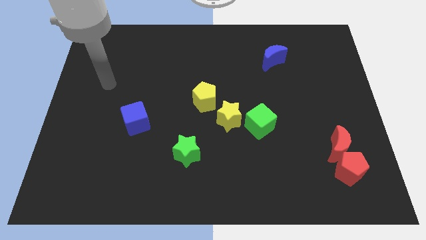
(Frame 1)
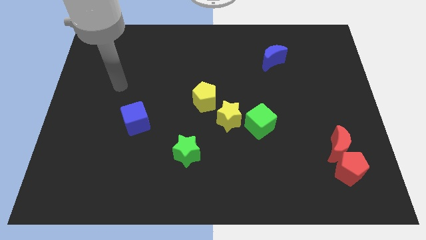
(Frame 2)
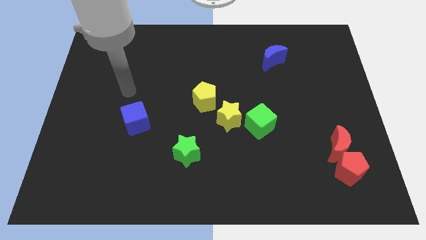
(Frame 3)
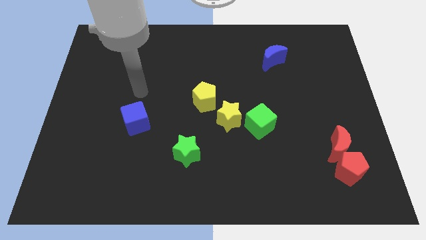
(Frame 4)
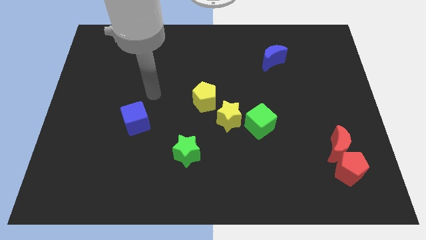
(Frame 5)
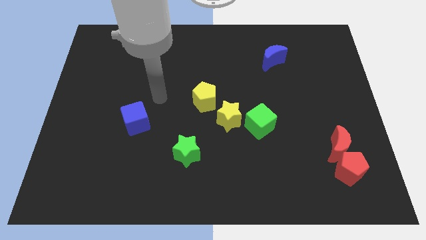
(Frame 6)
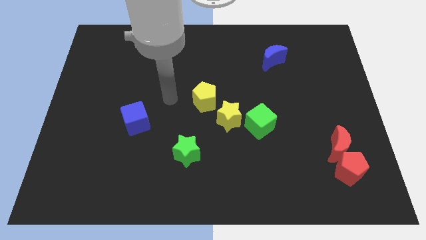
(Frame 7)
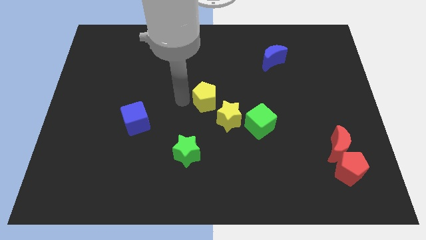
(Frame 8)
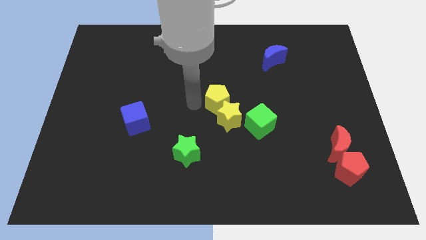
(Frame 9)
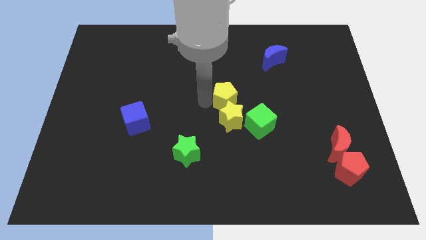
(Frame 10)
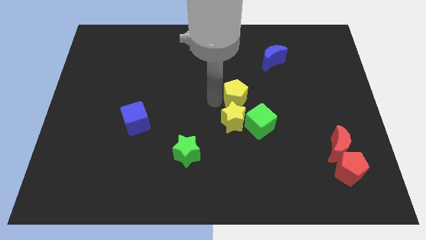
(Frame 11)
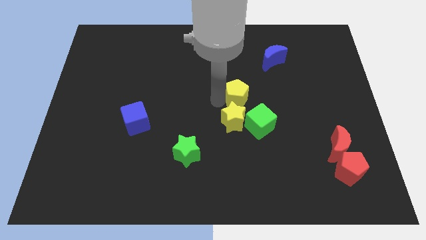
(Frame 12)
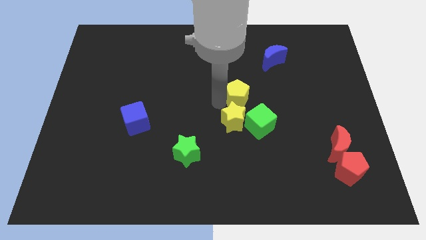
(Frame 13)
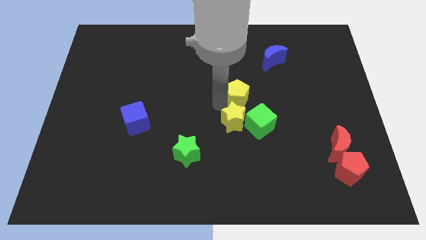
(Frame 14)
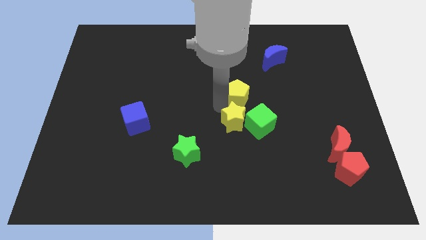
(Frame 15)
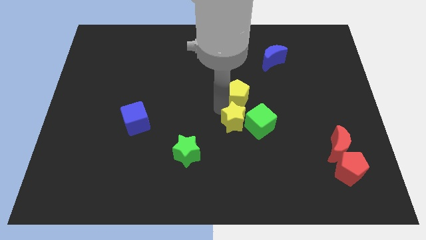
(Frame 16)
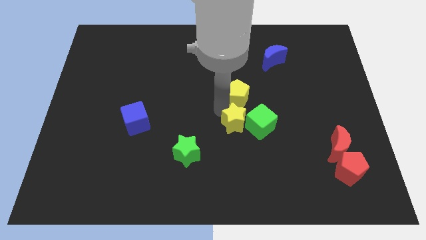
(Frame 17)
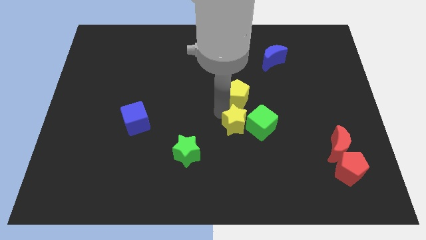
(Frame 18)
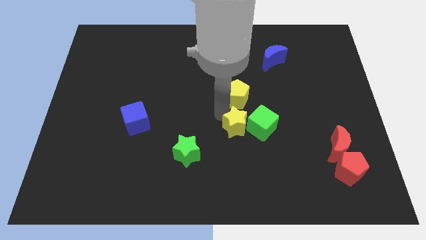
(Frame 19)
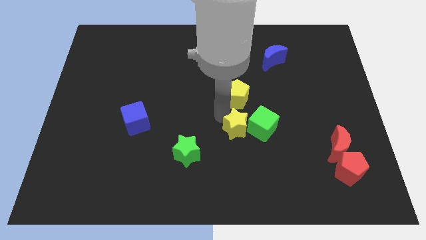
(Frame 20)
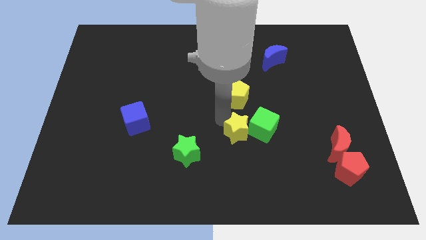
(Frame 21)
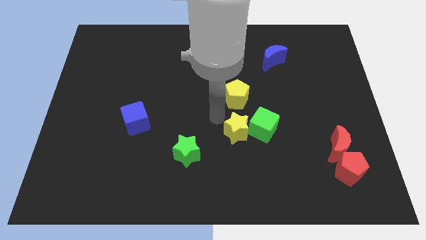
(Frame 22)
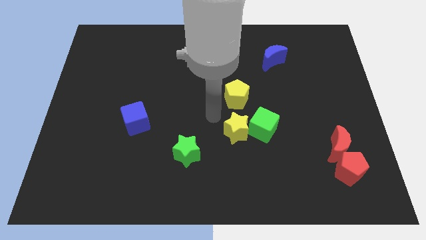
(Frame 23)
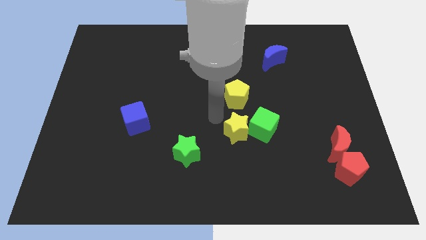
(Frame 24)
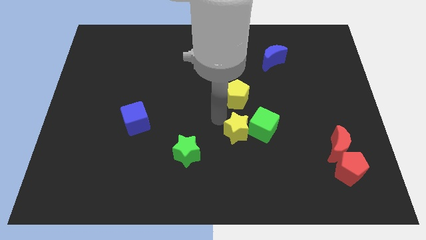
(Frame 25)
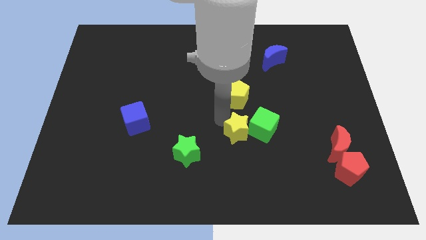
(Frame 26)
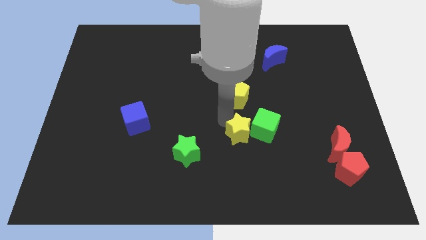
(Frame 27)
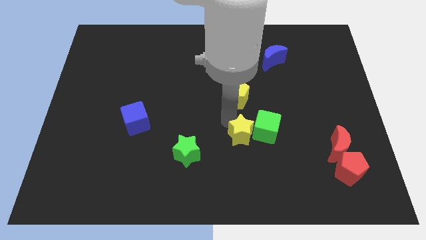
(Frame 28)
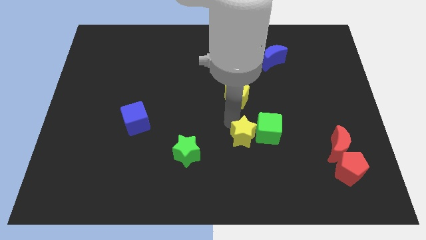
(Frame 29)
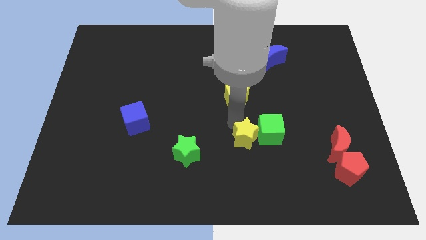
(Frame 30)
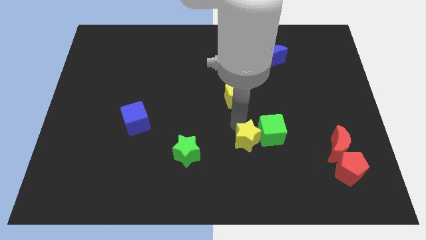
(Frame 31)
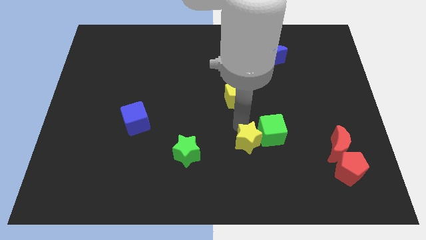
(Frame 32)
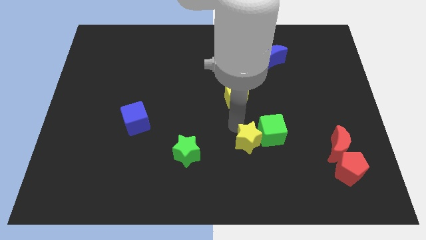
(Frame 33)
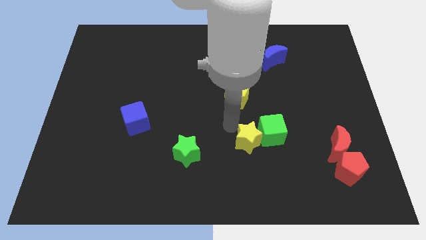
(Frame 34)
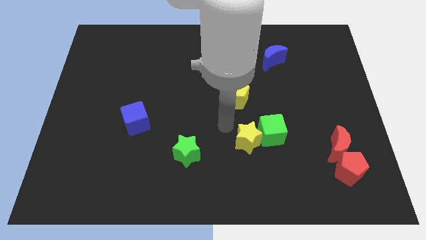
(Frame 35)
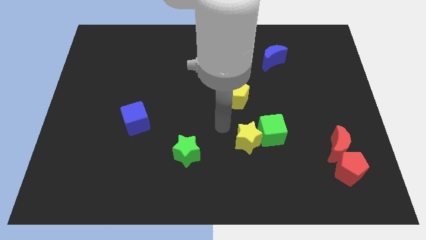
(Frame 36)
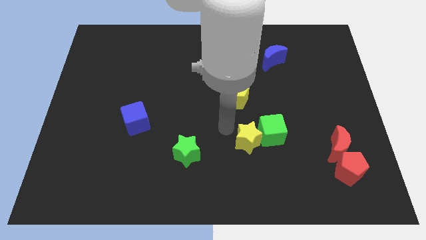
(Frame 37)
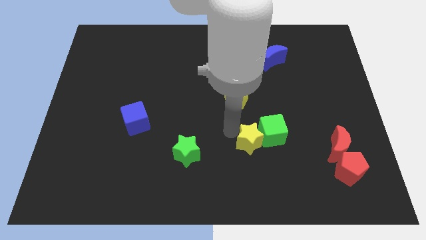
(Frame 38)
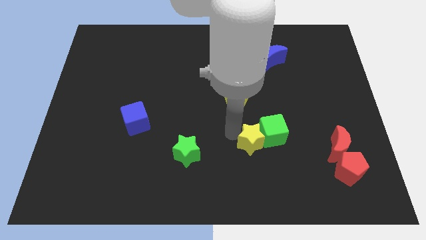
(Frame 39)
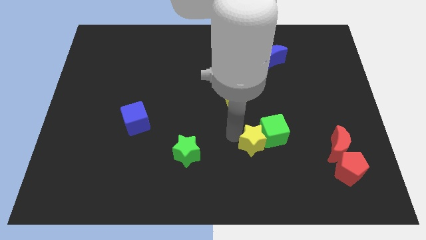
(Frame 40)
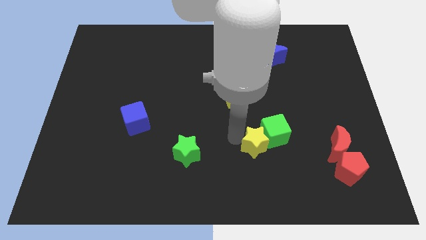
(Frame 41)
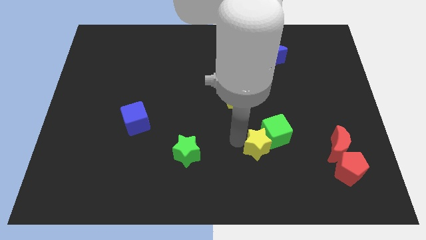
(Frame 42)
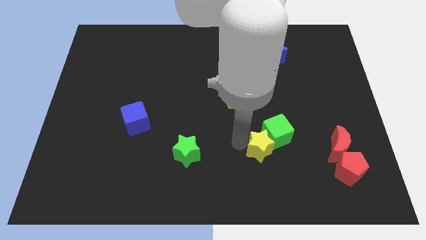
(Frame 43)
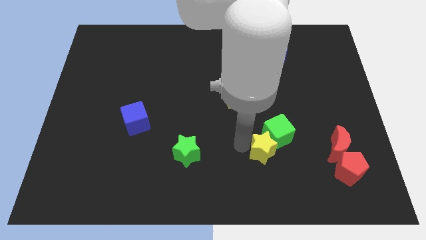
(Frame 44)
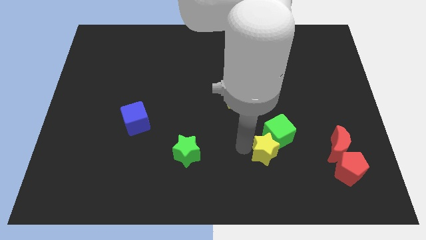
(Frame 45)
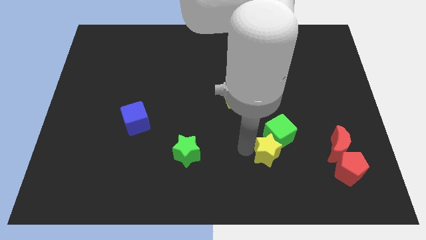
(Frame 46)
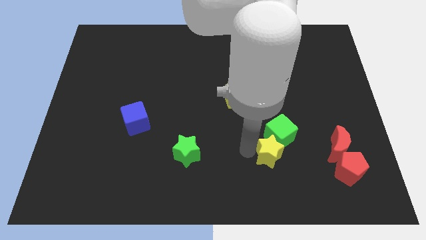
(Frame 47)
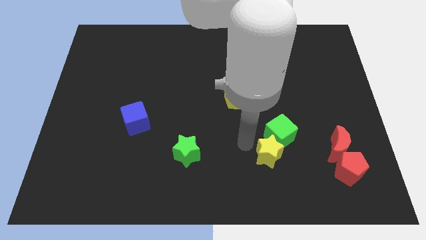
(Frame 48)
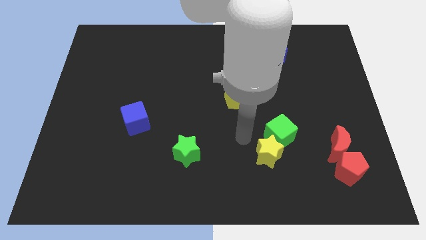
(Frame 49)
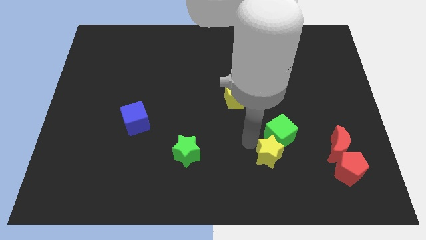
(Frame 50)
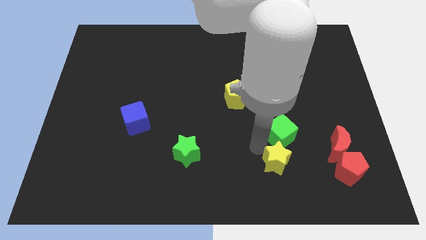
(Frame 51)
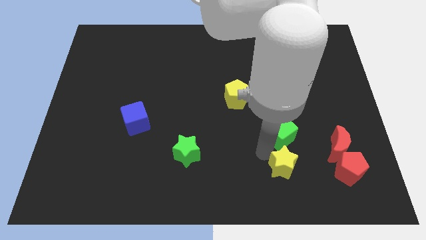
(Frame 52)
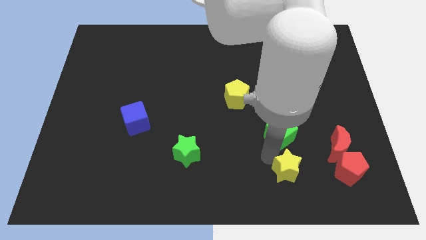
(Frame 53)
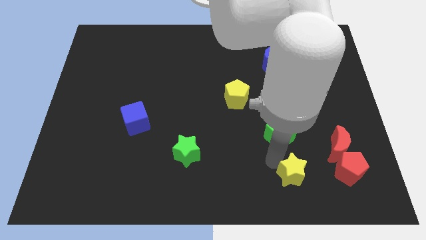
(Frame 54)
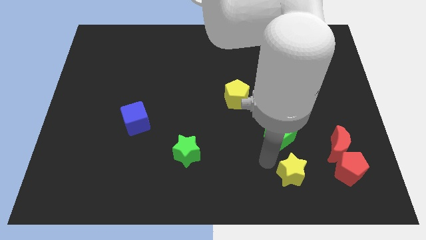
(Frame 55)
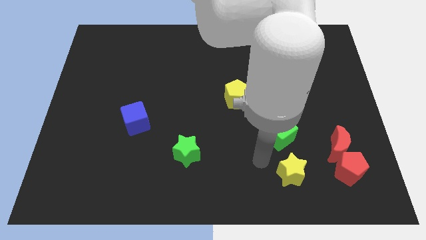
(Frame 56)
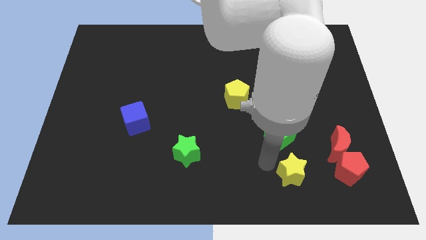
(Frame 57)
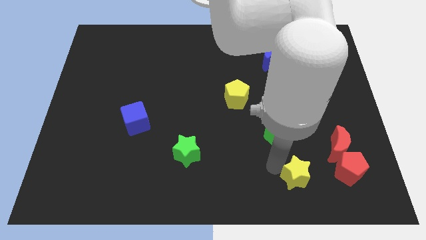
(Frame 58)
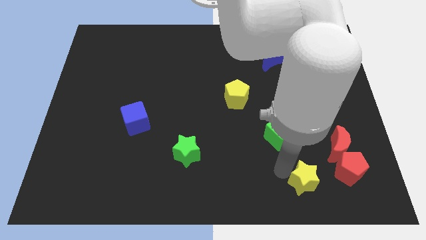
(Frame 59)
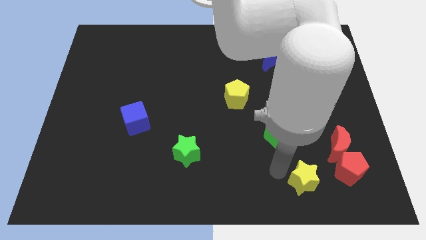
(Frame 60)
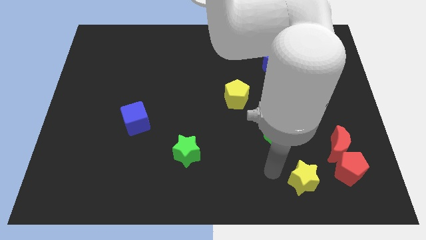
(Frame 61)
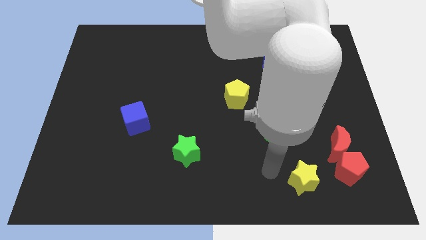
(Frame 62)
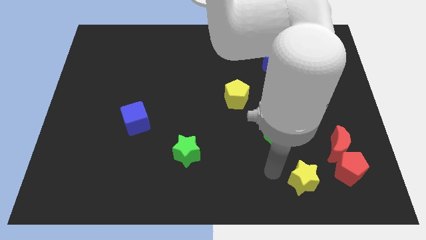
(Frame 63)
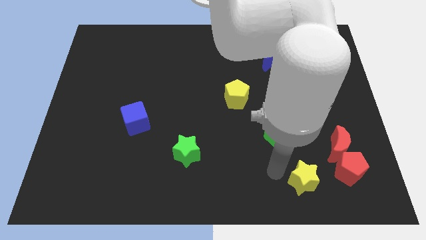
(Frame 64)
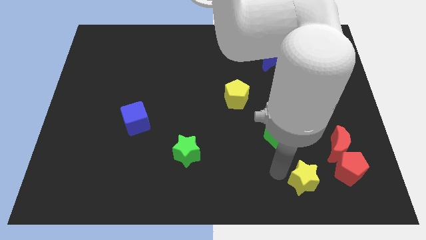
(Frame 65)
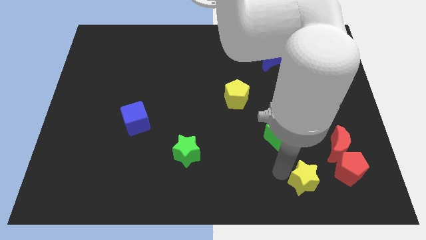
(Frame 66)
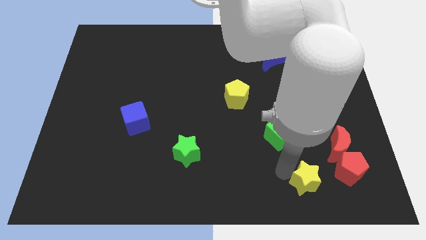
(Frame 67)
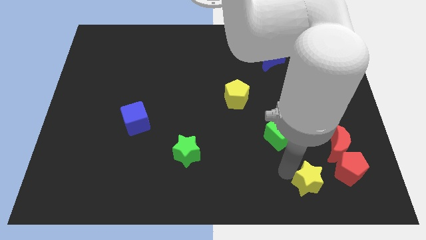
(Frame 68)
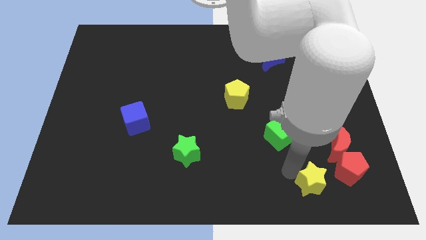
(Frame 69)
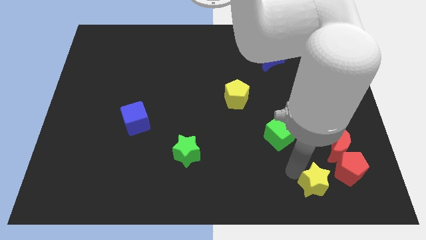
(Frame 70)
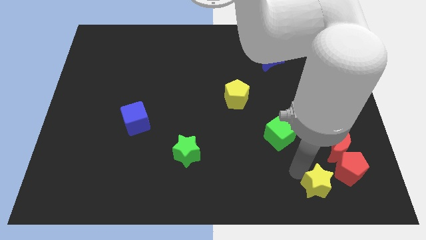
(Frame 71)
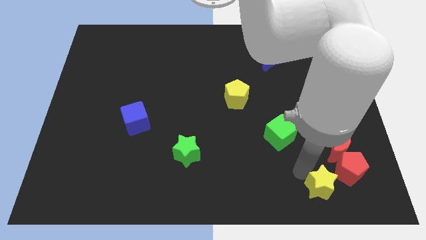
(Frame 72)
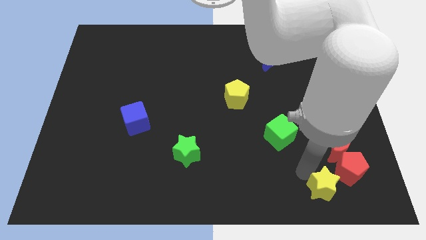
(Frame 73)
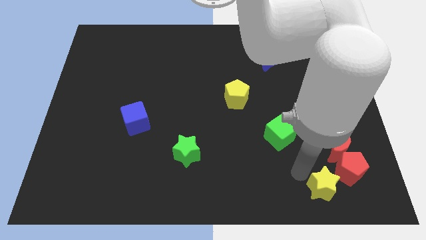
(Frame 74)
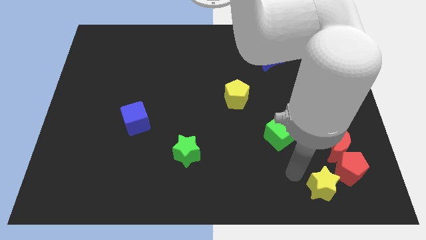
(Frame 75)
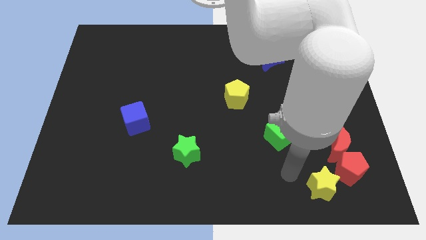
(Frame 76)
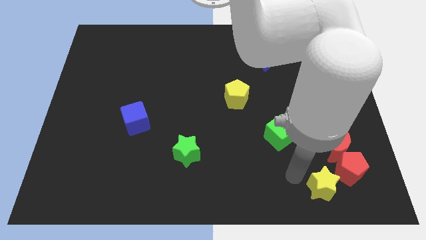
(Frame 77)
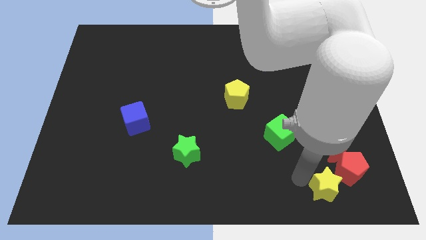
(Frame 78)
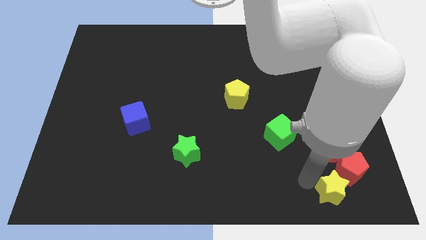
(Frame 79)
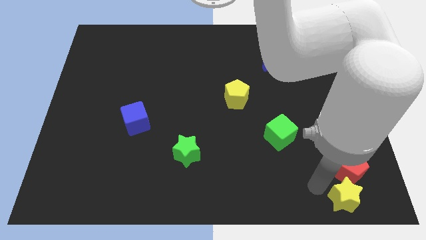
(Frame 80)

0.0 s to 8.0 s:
move the yellow star to the bottom right
